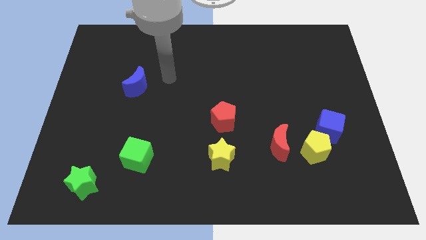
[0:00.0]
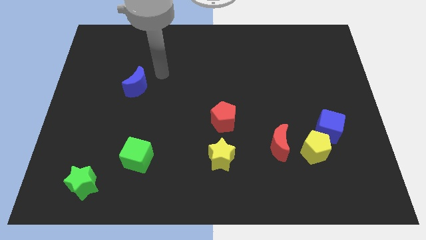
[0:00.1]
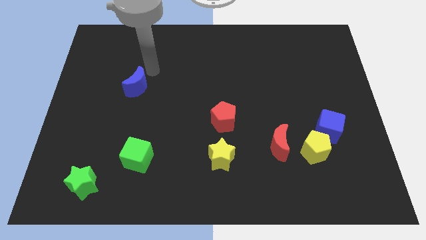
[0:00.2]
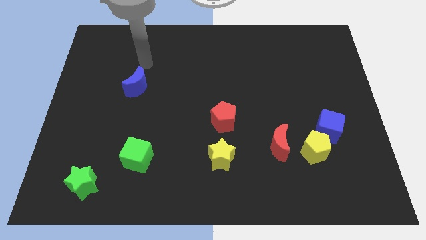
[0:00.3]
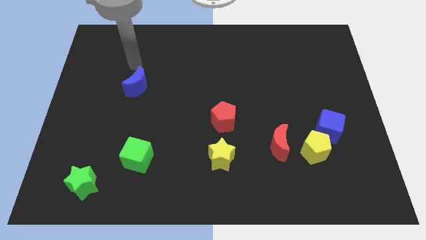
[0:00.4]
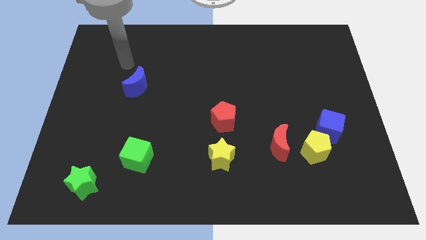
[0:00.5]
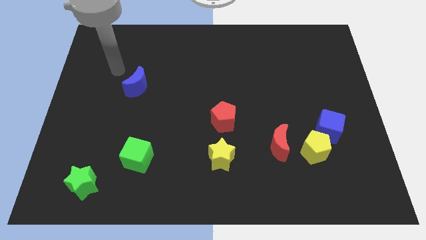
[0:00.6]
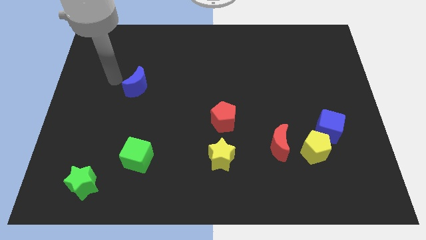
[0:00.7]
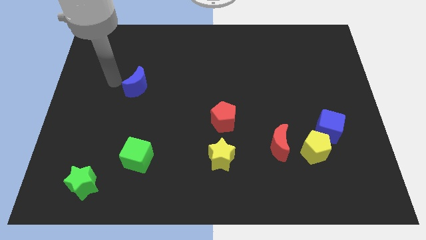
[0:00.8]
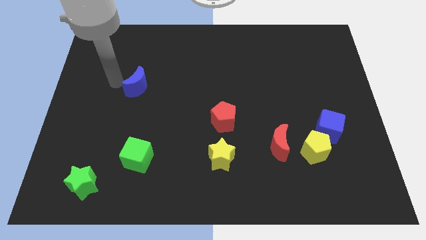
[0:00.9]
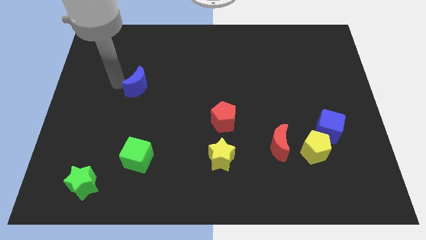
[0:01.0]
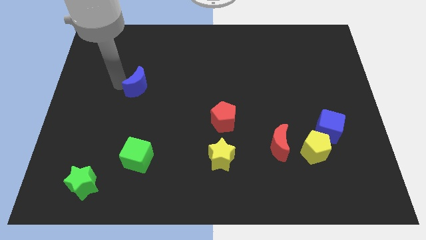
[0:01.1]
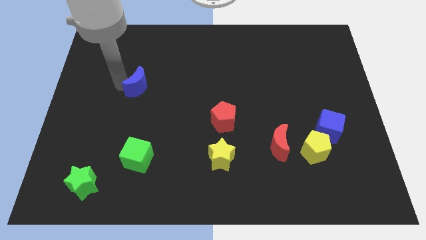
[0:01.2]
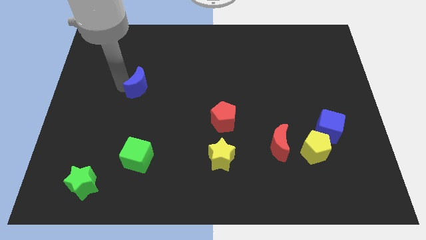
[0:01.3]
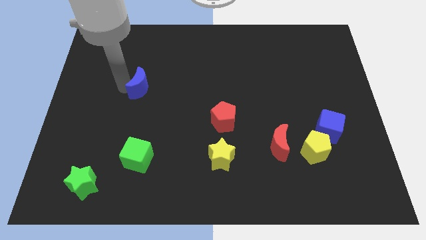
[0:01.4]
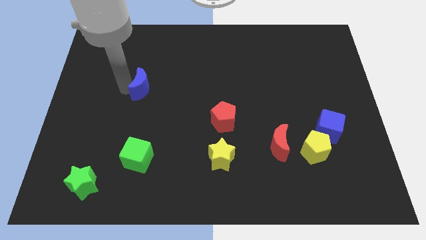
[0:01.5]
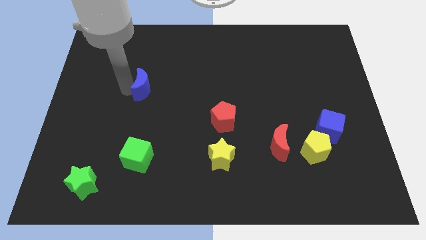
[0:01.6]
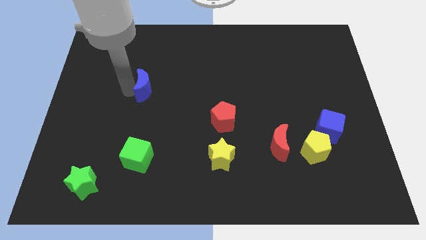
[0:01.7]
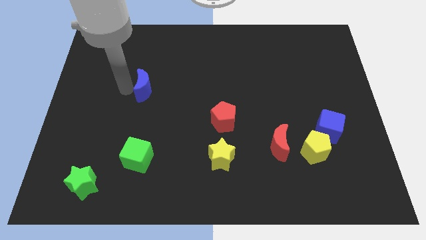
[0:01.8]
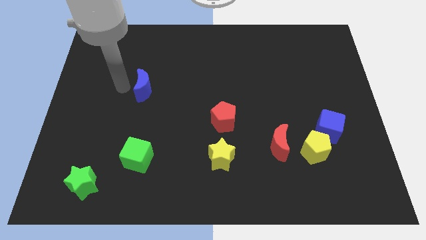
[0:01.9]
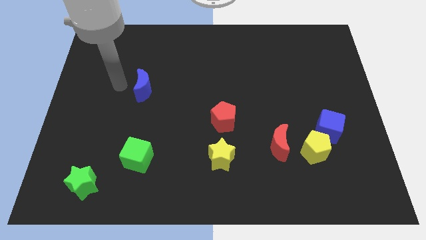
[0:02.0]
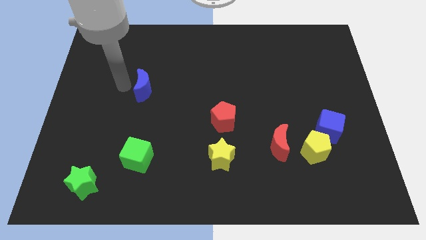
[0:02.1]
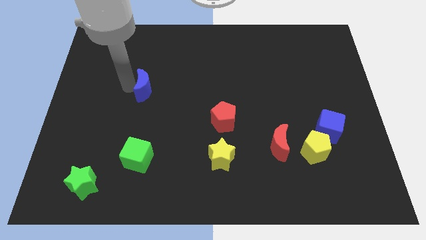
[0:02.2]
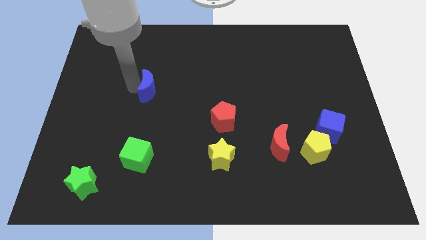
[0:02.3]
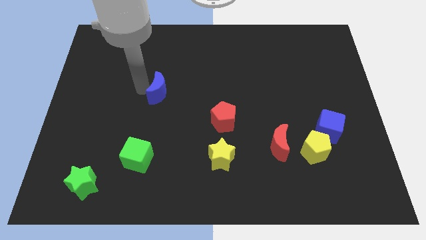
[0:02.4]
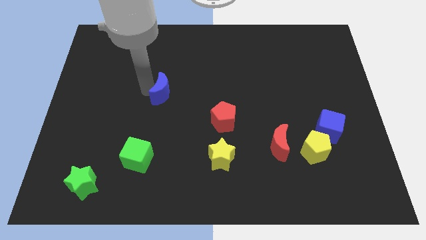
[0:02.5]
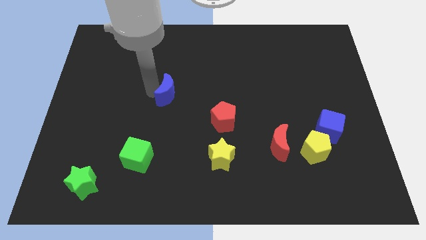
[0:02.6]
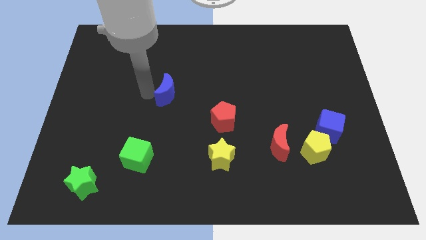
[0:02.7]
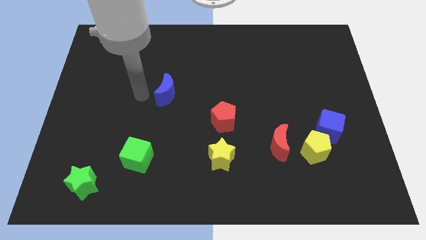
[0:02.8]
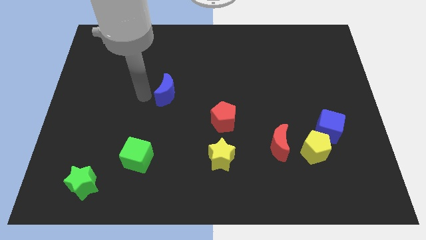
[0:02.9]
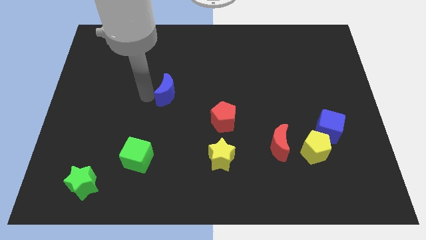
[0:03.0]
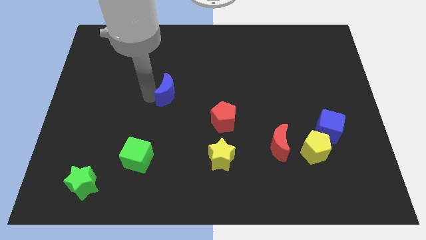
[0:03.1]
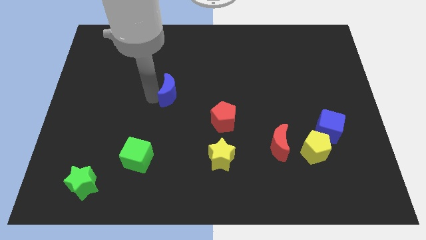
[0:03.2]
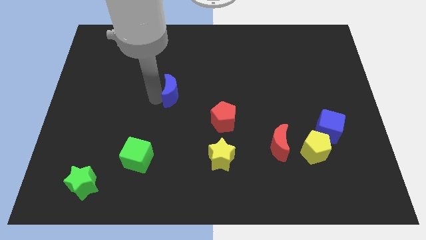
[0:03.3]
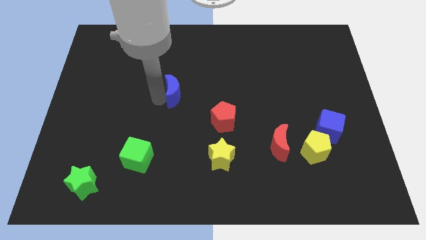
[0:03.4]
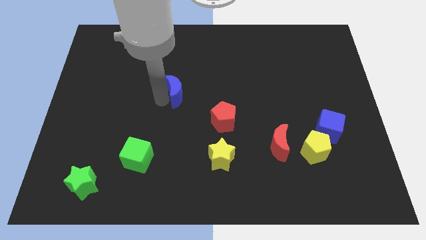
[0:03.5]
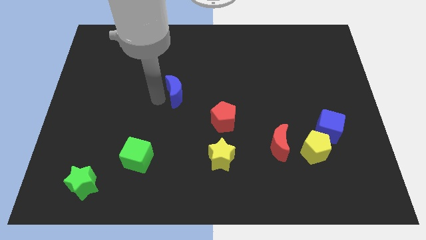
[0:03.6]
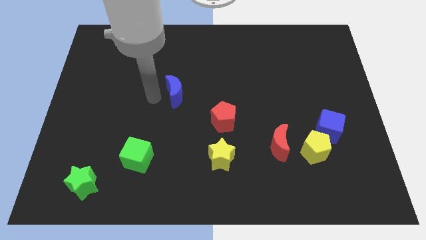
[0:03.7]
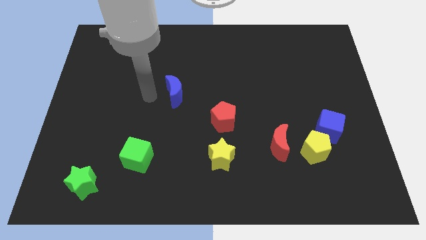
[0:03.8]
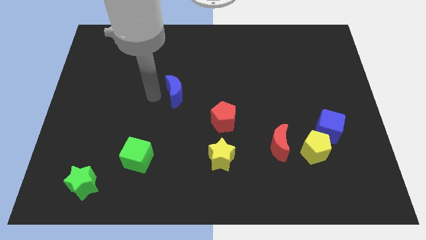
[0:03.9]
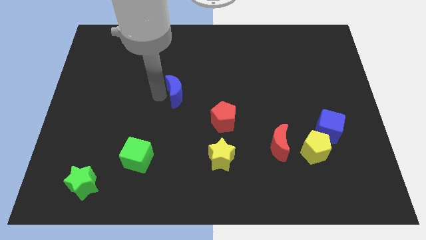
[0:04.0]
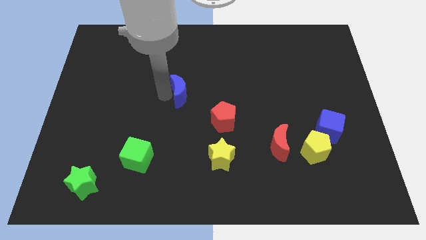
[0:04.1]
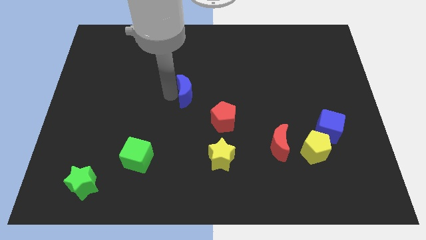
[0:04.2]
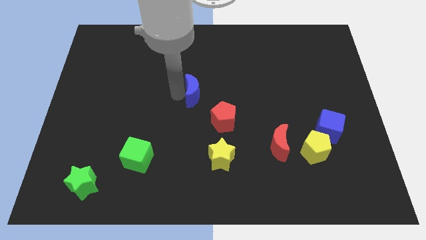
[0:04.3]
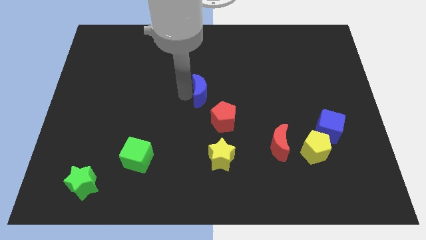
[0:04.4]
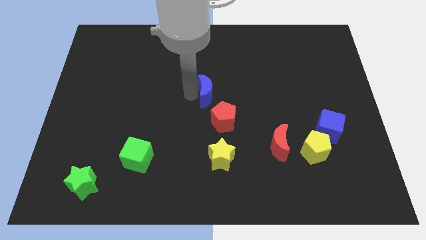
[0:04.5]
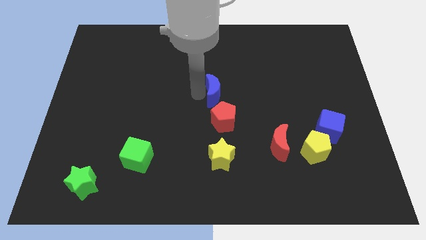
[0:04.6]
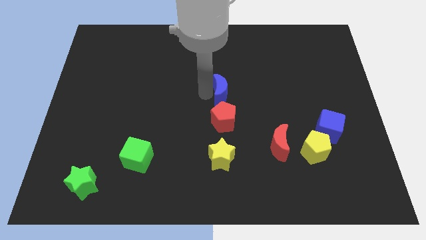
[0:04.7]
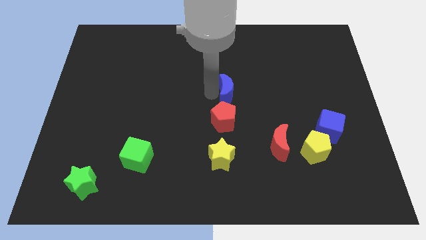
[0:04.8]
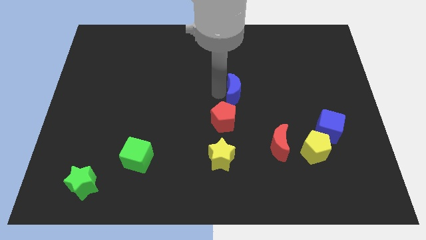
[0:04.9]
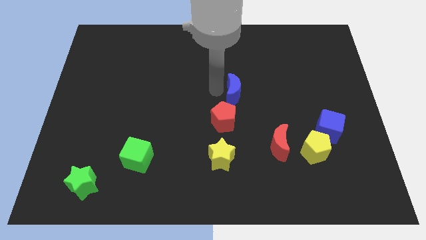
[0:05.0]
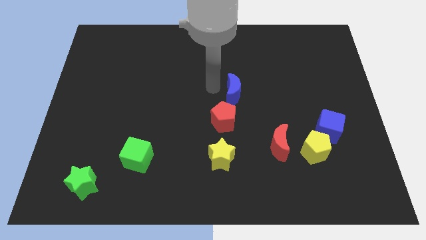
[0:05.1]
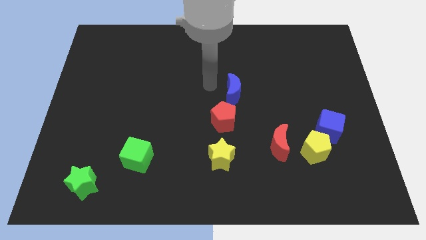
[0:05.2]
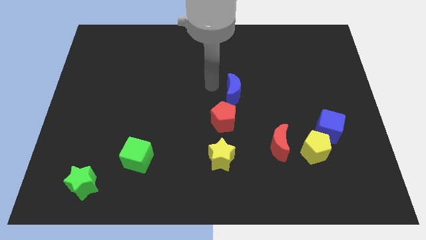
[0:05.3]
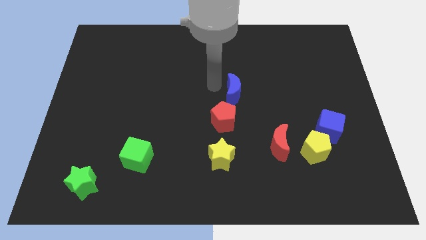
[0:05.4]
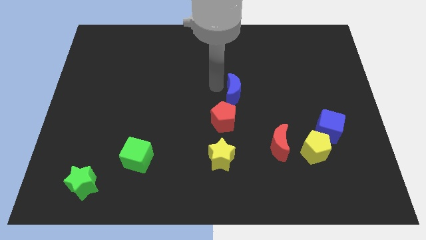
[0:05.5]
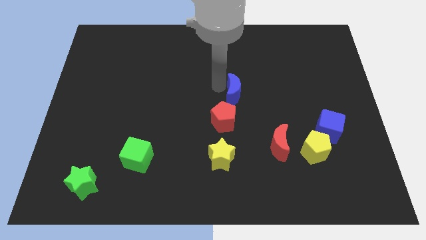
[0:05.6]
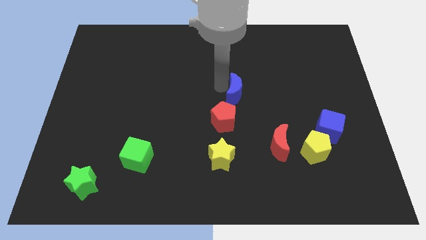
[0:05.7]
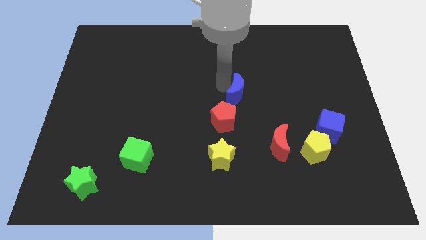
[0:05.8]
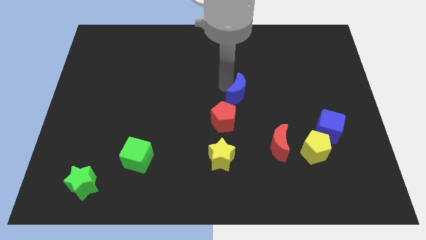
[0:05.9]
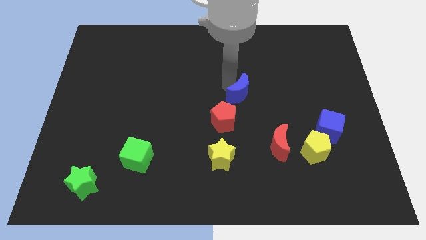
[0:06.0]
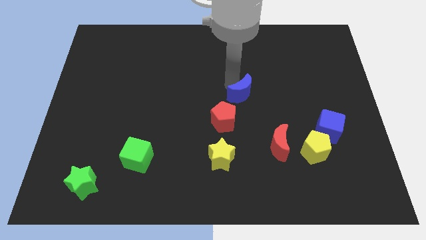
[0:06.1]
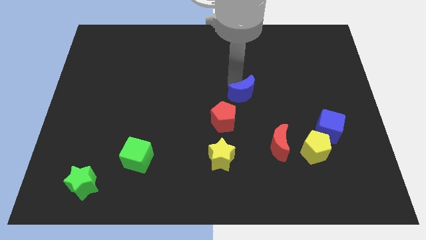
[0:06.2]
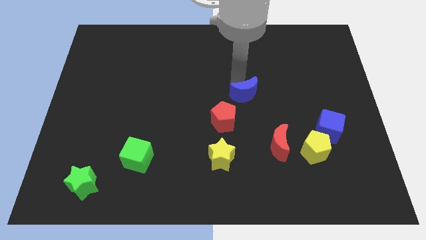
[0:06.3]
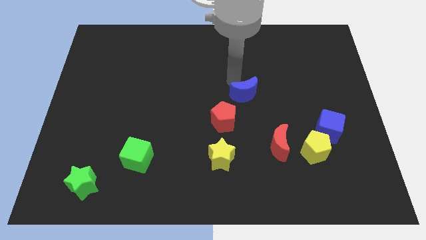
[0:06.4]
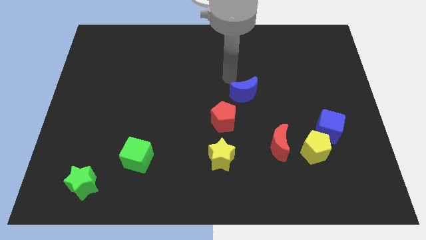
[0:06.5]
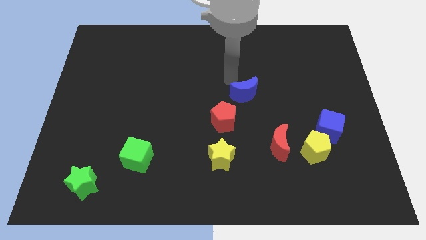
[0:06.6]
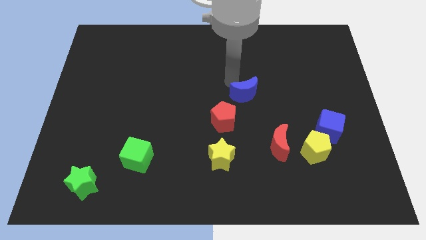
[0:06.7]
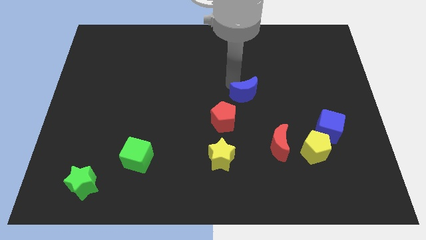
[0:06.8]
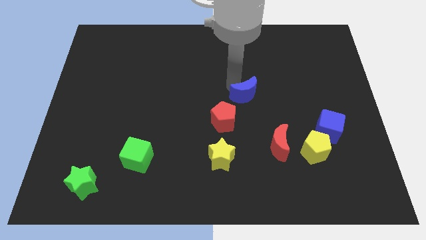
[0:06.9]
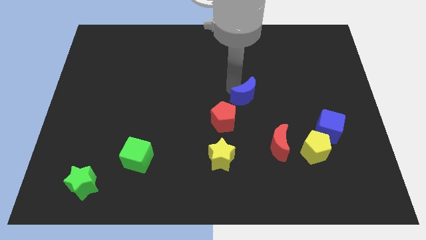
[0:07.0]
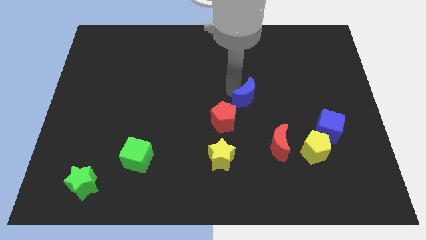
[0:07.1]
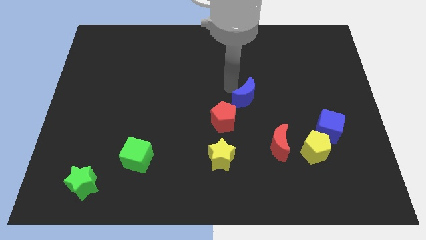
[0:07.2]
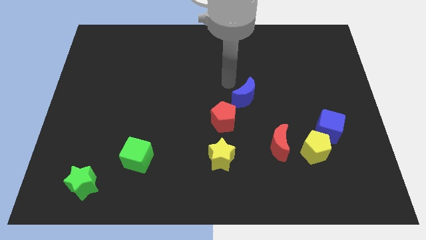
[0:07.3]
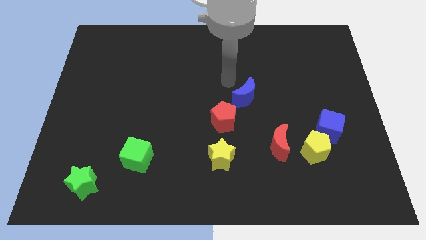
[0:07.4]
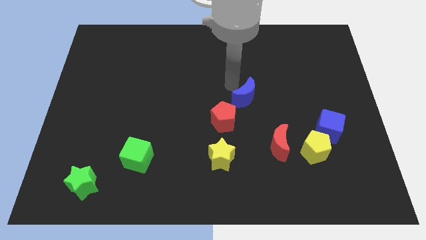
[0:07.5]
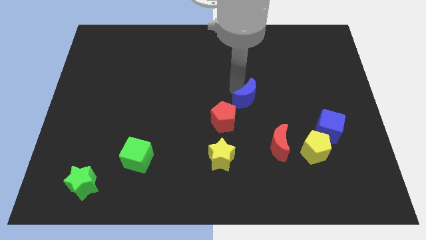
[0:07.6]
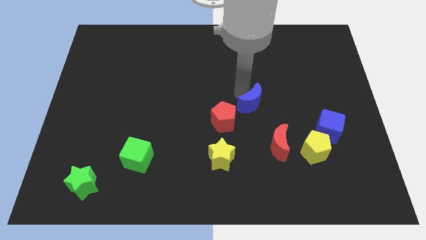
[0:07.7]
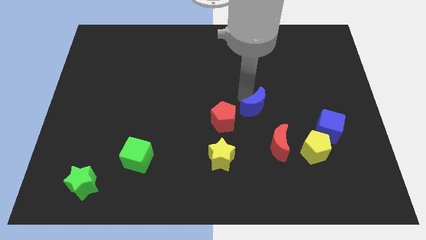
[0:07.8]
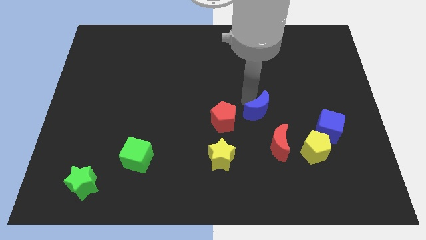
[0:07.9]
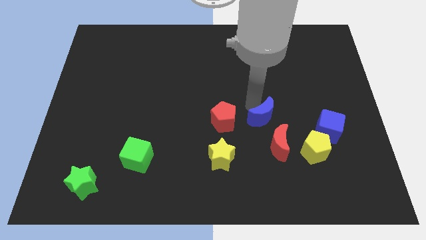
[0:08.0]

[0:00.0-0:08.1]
put the blue moon to the left of the blue cube
